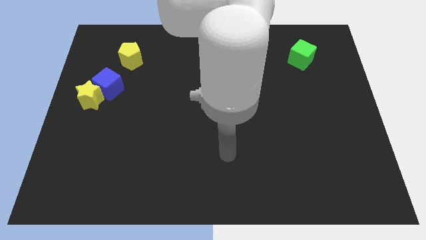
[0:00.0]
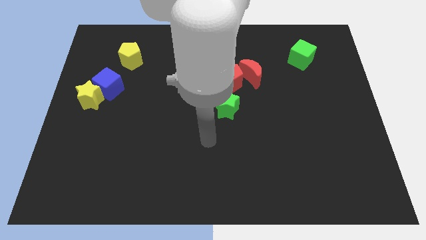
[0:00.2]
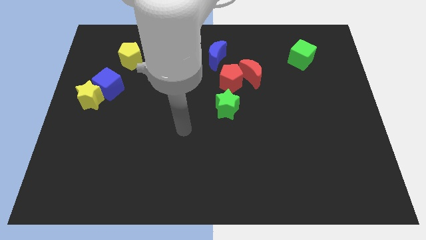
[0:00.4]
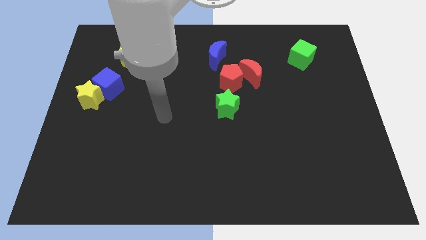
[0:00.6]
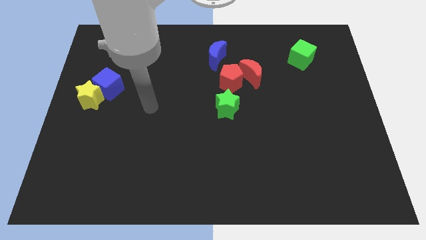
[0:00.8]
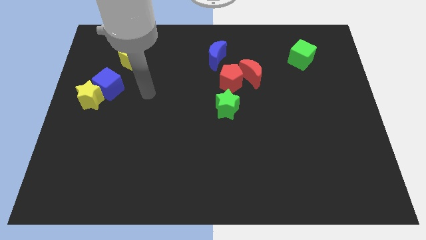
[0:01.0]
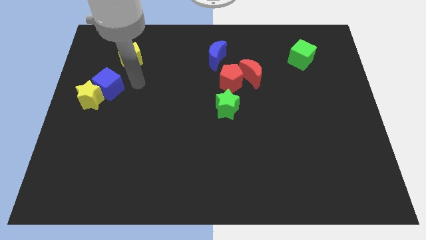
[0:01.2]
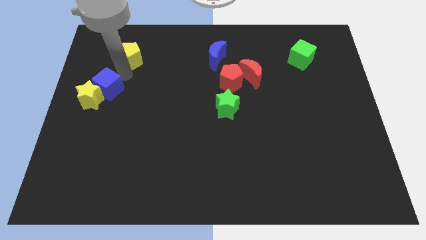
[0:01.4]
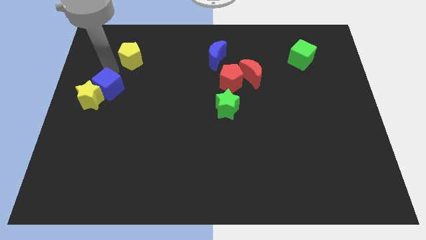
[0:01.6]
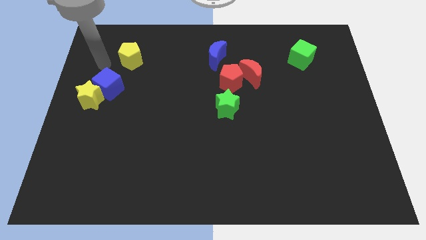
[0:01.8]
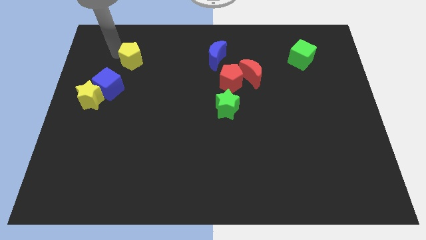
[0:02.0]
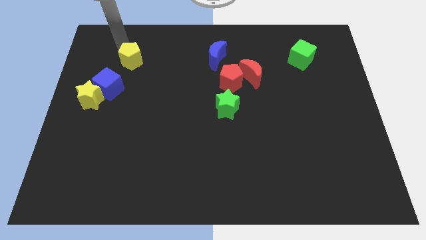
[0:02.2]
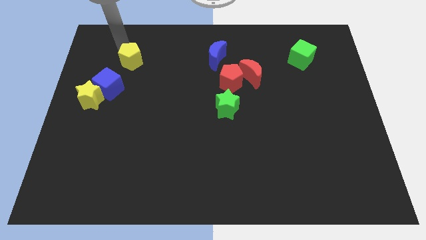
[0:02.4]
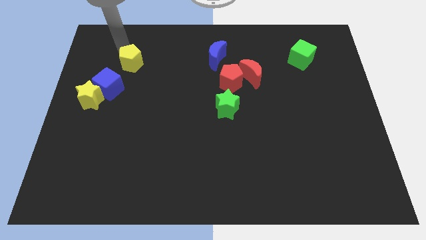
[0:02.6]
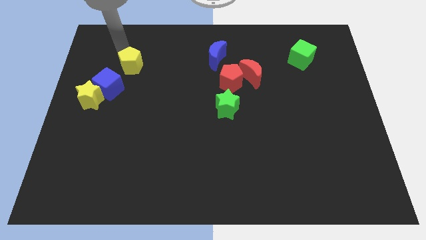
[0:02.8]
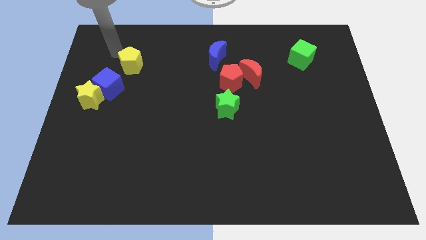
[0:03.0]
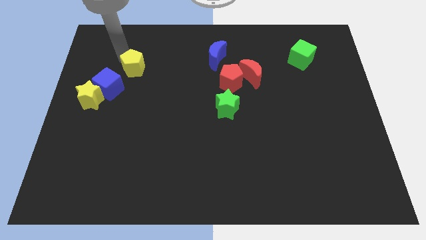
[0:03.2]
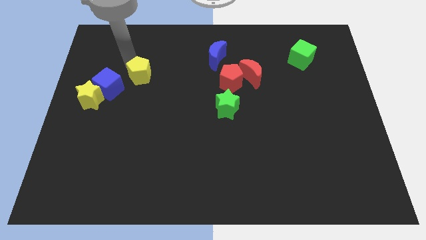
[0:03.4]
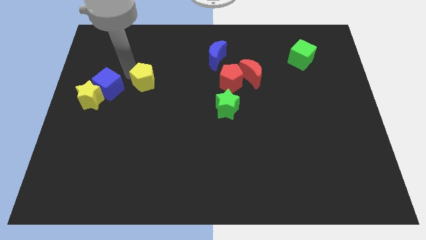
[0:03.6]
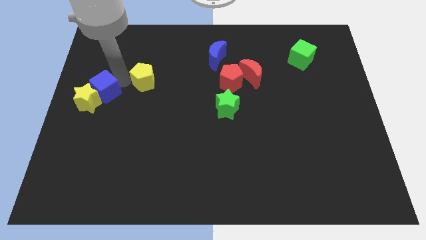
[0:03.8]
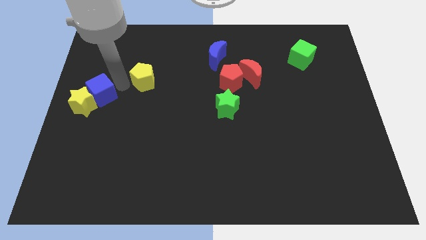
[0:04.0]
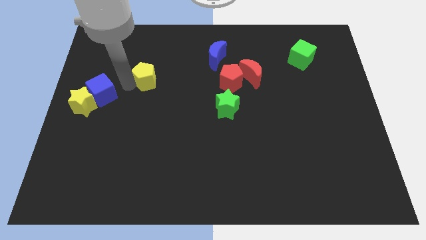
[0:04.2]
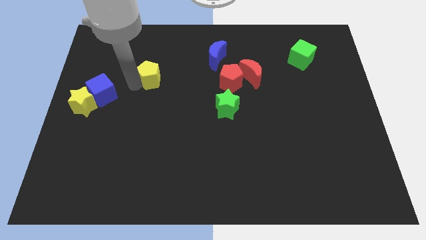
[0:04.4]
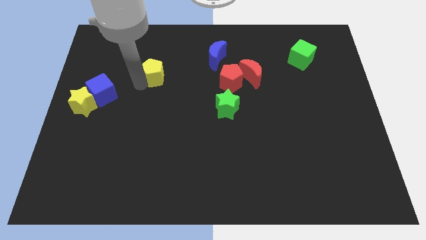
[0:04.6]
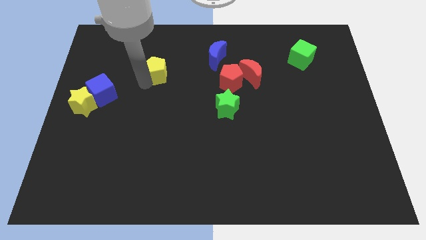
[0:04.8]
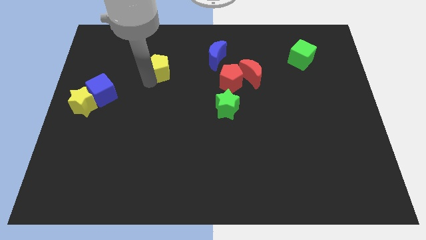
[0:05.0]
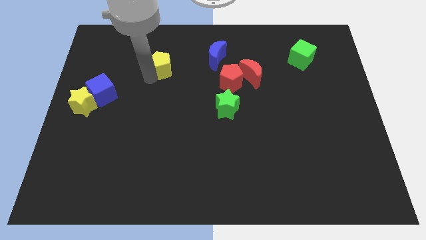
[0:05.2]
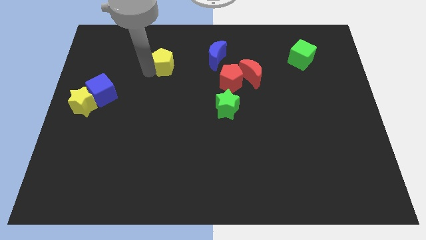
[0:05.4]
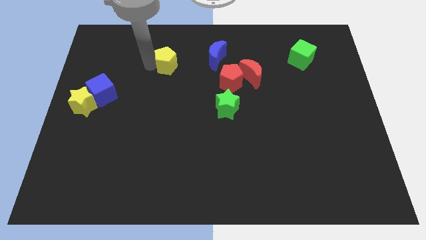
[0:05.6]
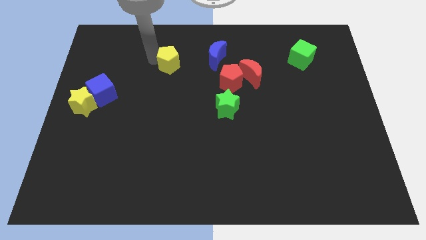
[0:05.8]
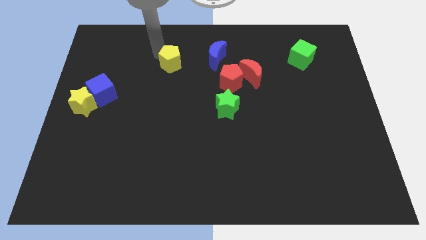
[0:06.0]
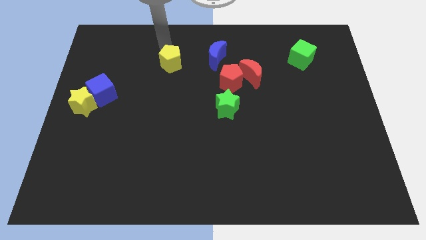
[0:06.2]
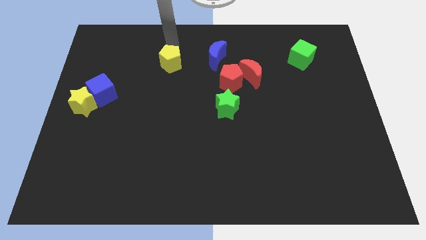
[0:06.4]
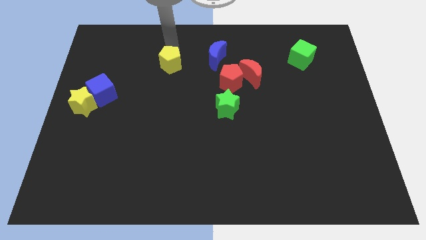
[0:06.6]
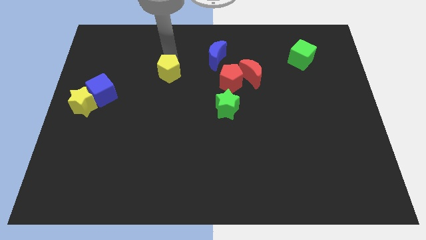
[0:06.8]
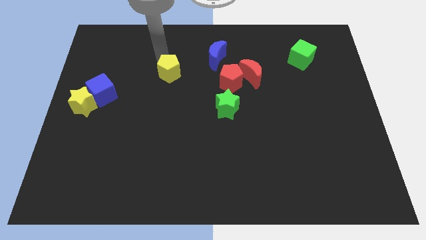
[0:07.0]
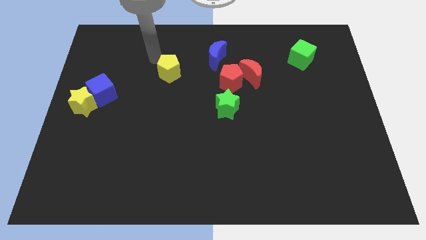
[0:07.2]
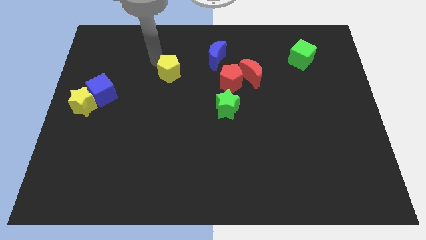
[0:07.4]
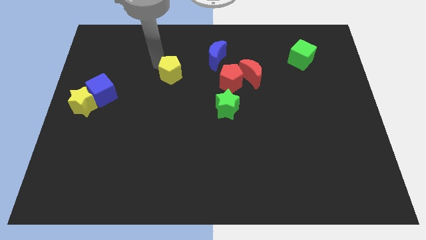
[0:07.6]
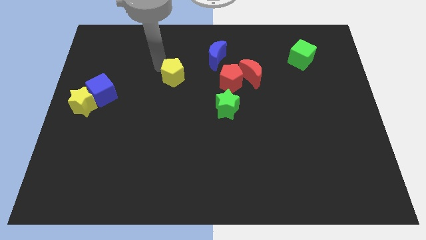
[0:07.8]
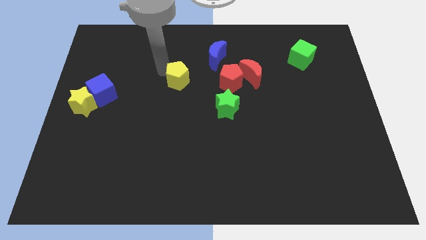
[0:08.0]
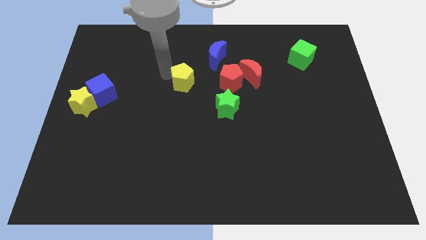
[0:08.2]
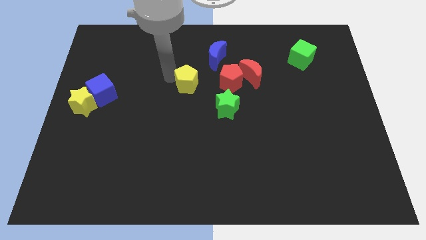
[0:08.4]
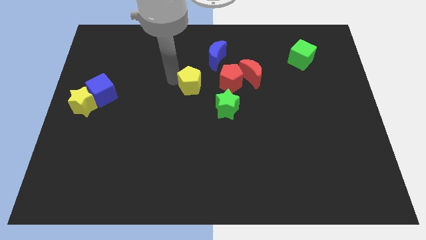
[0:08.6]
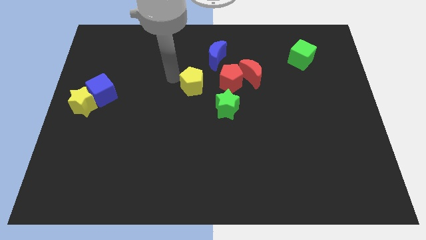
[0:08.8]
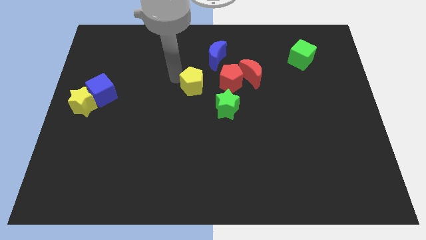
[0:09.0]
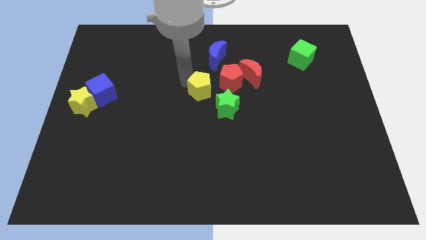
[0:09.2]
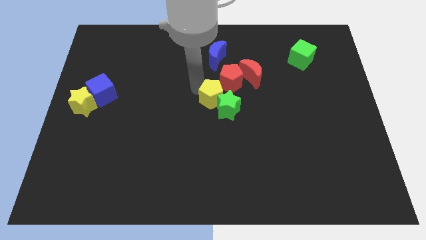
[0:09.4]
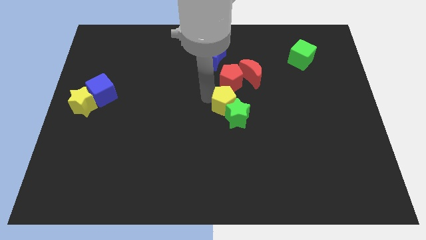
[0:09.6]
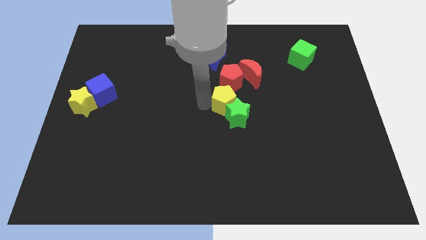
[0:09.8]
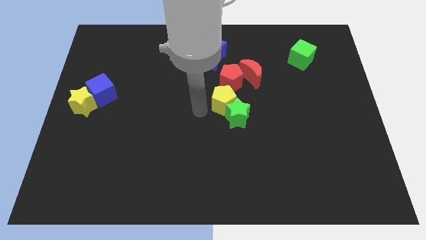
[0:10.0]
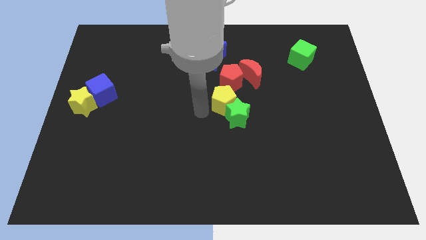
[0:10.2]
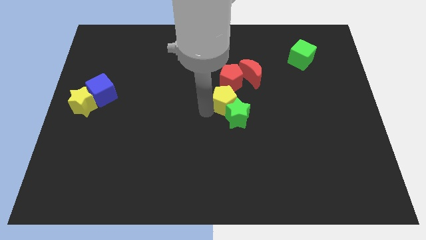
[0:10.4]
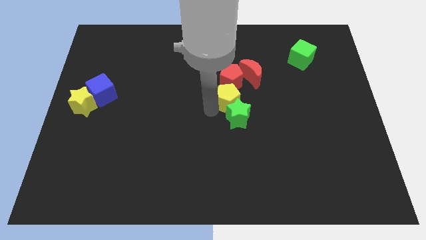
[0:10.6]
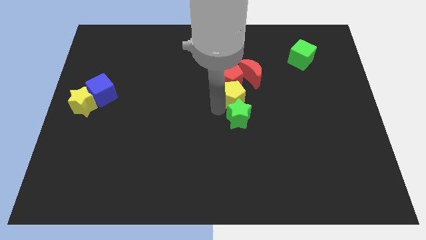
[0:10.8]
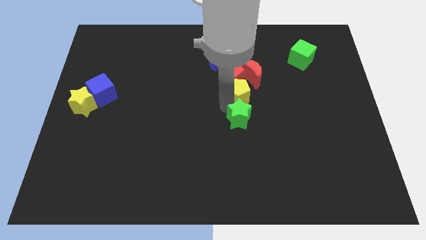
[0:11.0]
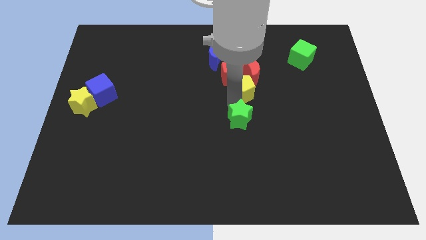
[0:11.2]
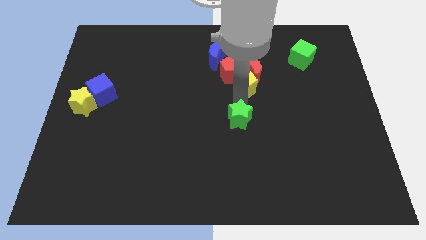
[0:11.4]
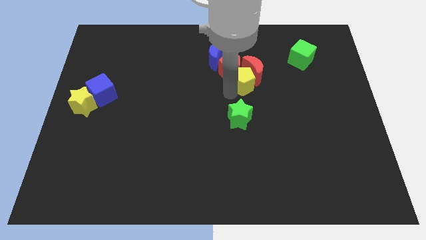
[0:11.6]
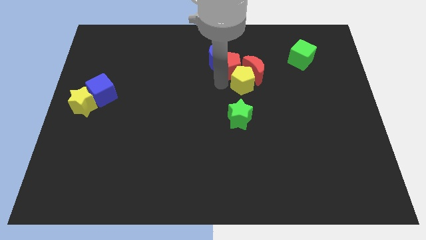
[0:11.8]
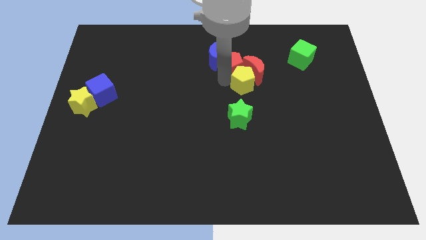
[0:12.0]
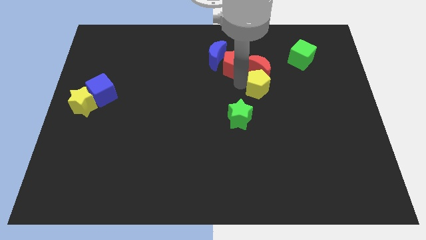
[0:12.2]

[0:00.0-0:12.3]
push the yellow pentagon diagonally down and to the right of the red moon

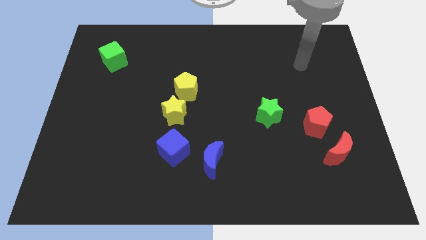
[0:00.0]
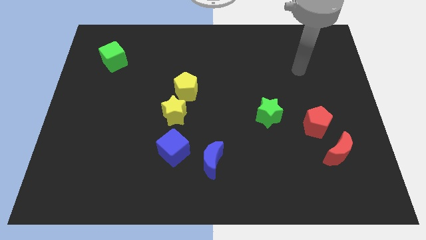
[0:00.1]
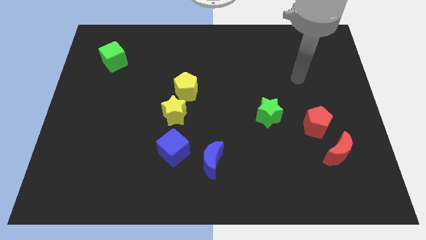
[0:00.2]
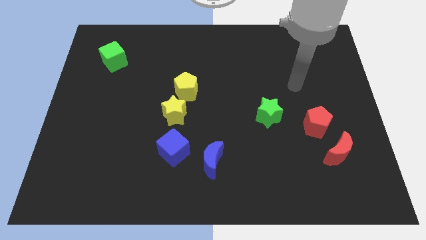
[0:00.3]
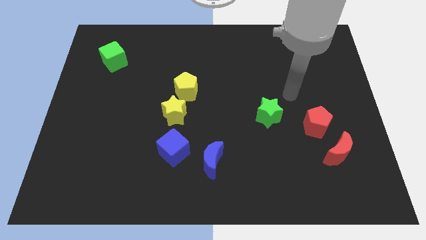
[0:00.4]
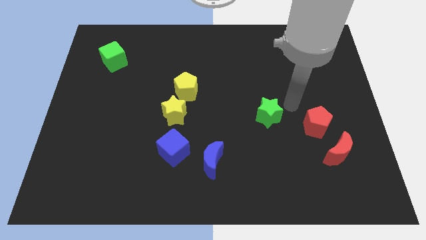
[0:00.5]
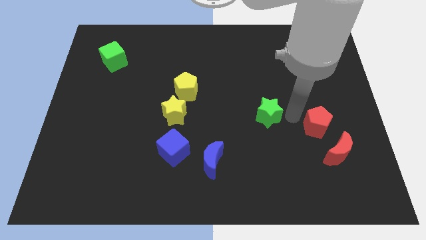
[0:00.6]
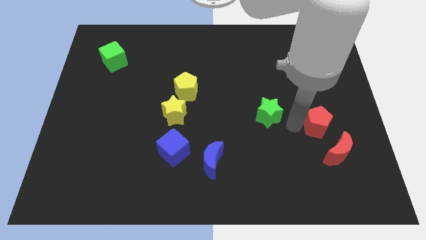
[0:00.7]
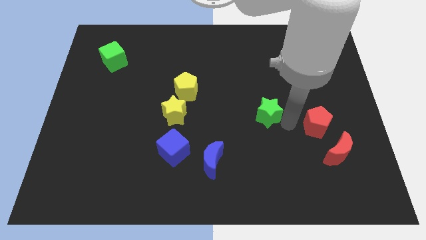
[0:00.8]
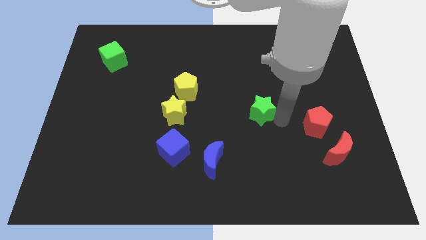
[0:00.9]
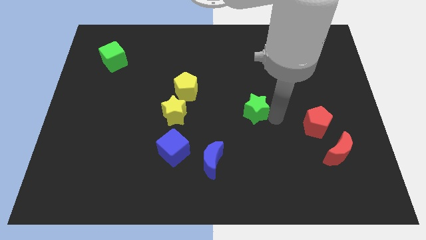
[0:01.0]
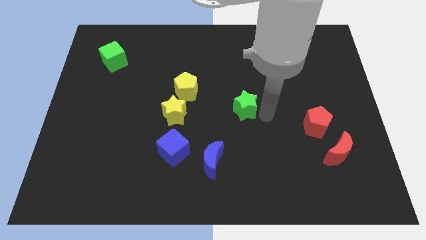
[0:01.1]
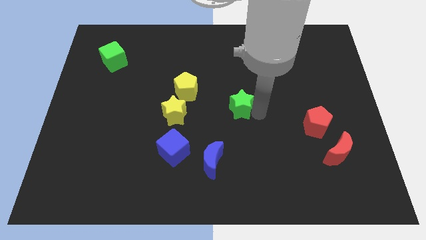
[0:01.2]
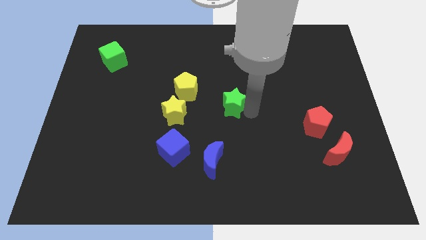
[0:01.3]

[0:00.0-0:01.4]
move the green star to the right of the yellow pentagon
